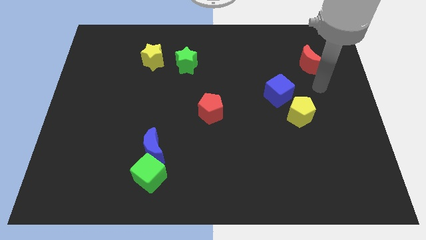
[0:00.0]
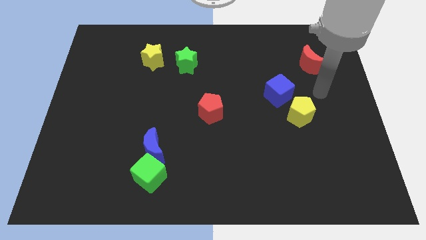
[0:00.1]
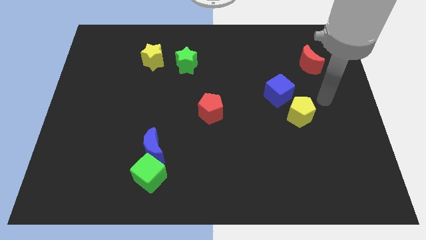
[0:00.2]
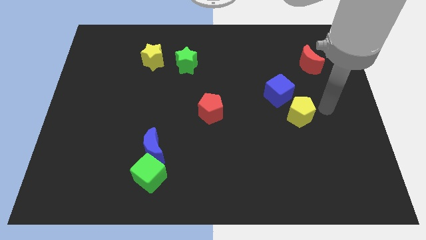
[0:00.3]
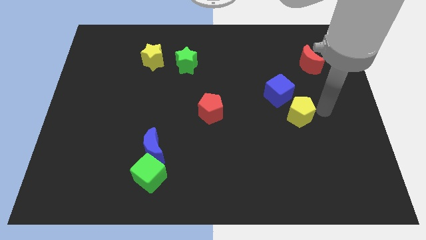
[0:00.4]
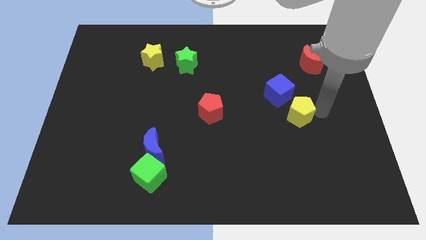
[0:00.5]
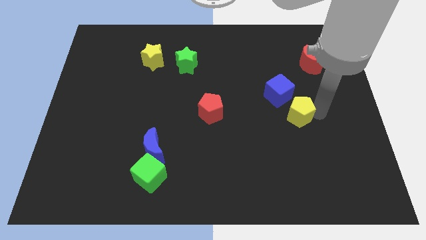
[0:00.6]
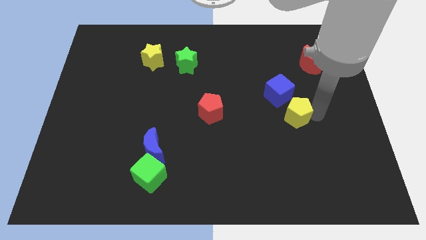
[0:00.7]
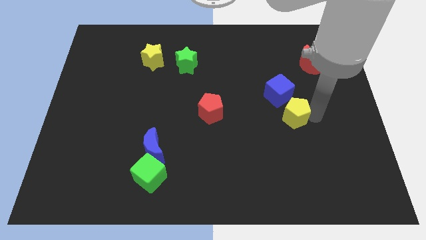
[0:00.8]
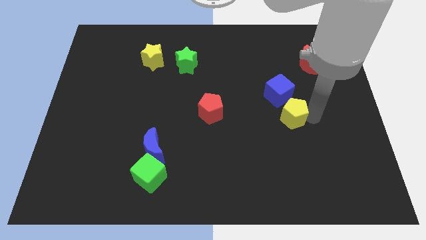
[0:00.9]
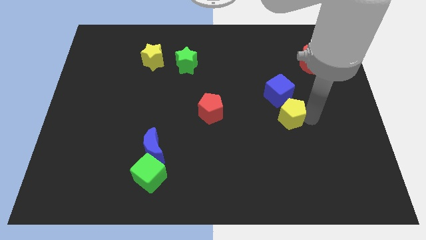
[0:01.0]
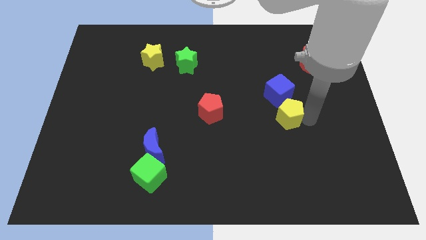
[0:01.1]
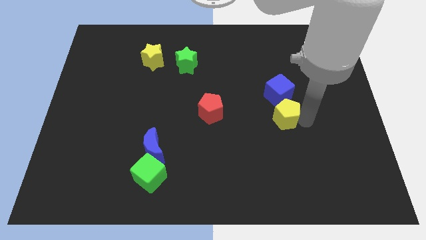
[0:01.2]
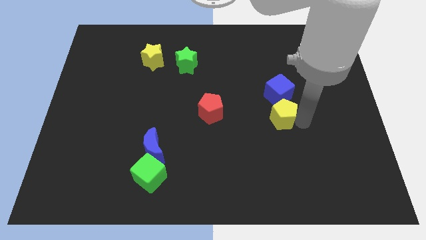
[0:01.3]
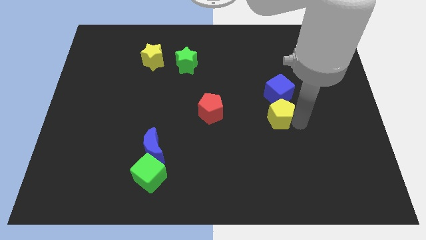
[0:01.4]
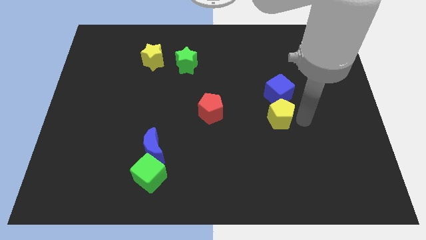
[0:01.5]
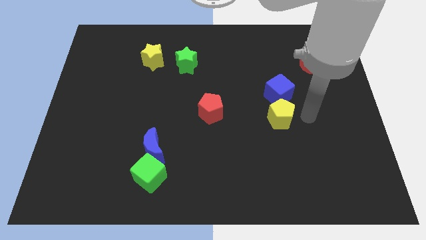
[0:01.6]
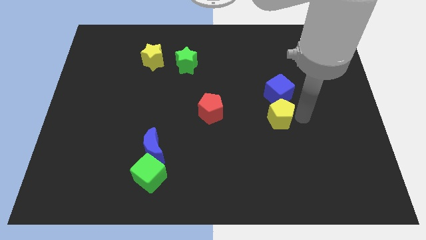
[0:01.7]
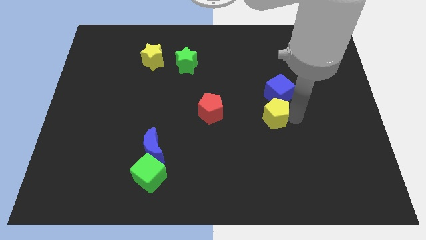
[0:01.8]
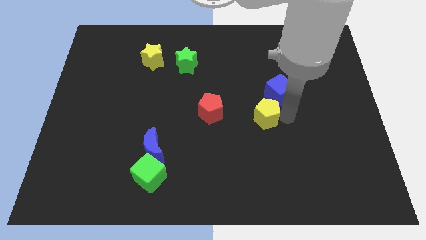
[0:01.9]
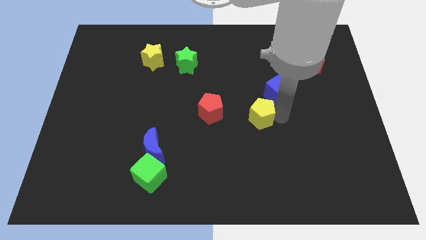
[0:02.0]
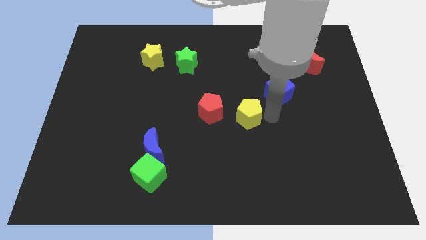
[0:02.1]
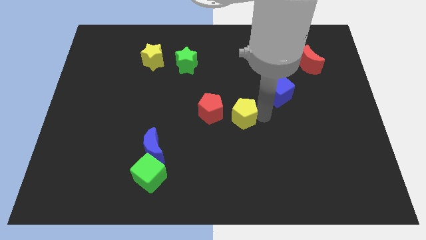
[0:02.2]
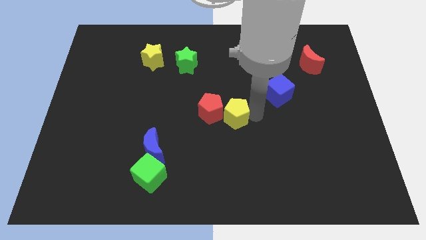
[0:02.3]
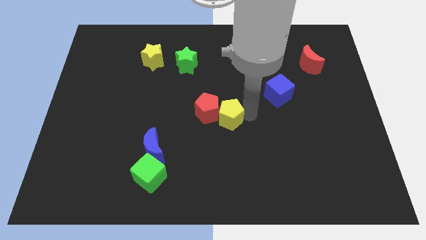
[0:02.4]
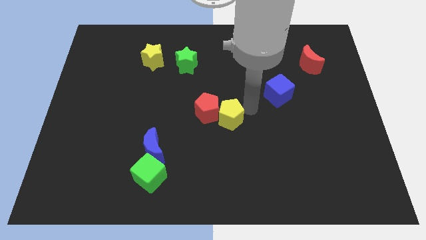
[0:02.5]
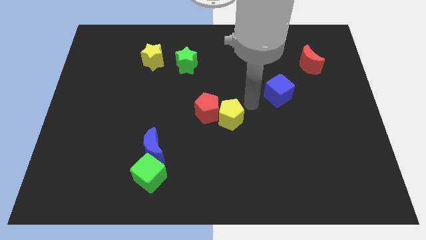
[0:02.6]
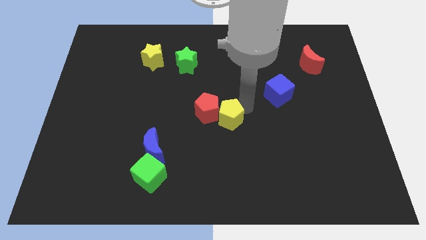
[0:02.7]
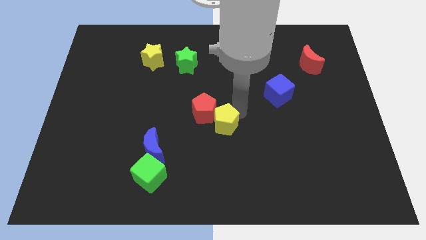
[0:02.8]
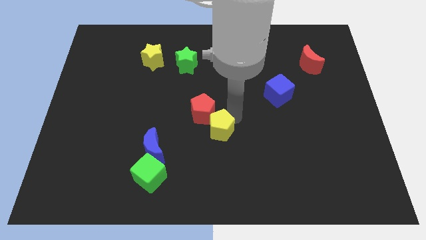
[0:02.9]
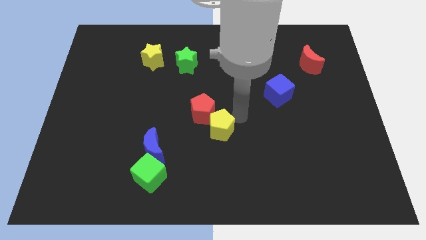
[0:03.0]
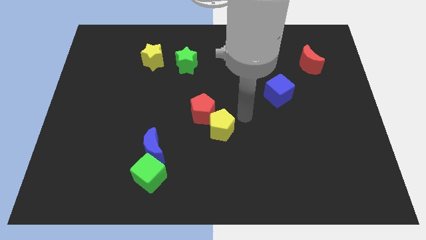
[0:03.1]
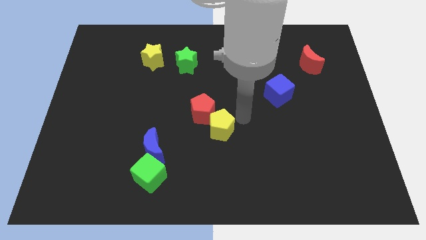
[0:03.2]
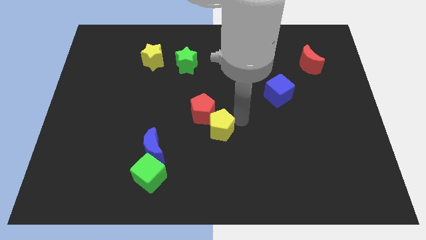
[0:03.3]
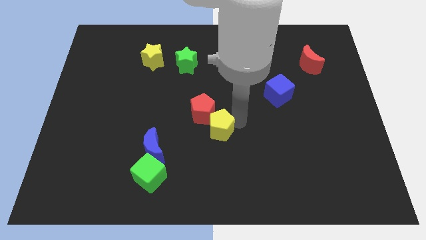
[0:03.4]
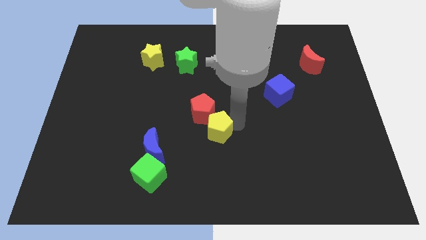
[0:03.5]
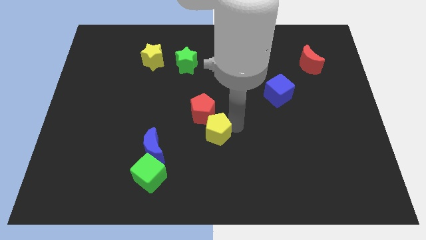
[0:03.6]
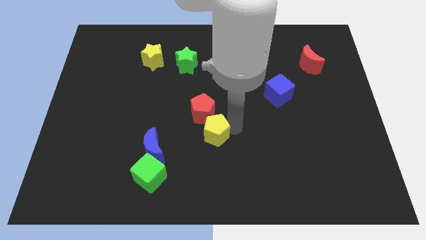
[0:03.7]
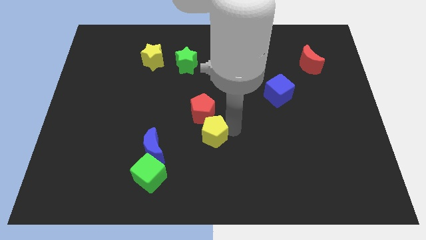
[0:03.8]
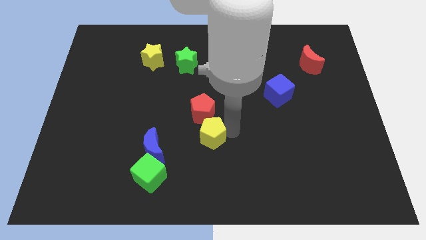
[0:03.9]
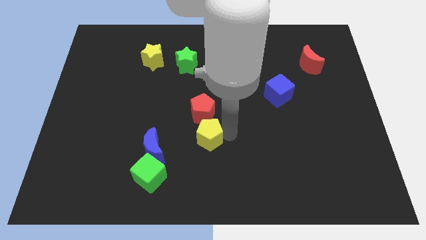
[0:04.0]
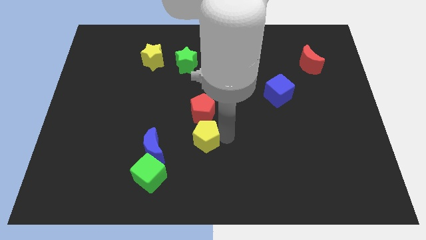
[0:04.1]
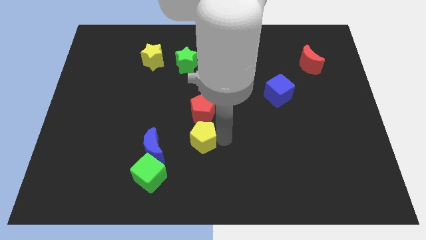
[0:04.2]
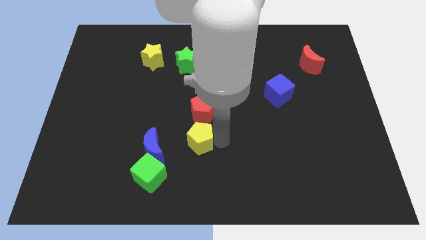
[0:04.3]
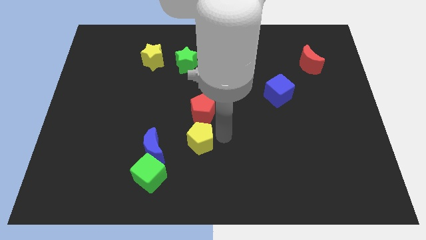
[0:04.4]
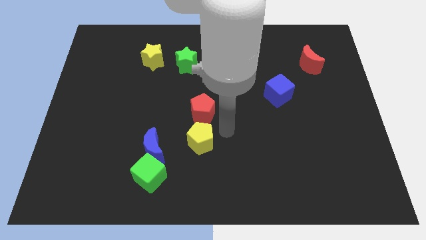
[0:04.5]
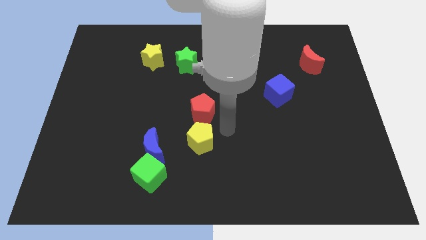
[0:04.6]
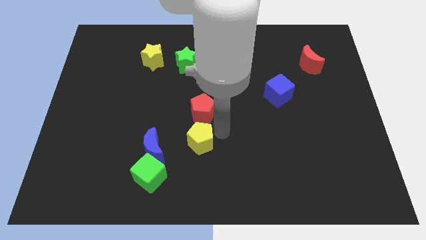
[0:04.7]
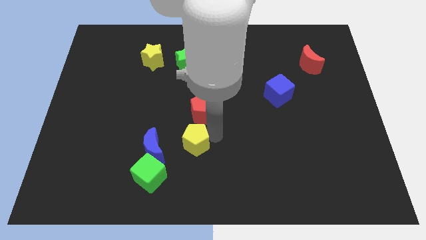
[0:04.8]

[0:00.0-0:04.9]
put the yellow pentagon diagonally up and to the right of the green cube

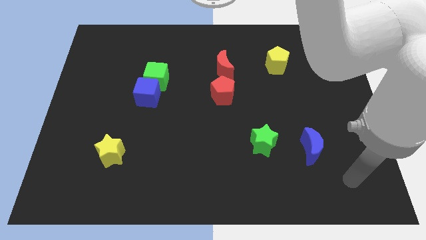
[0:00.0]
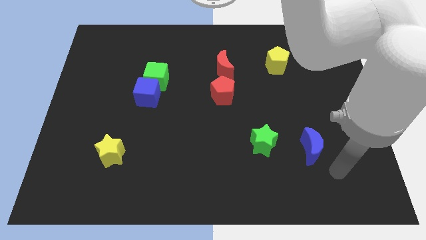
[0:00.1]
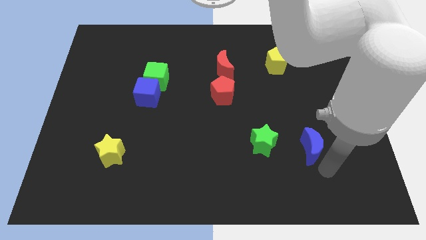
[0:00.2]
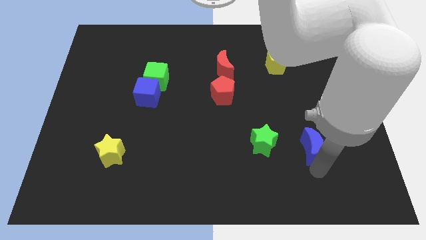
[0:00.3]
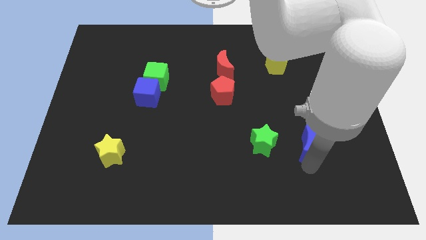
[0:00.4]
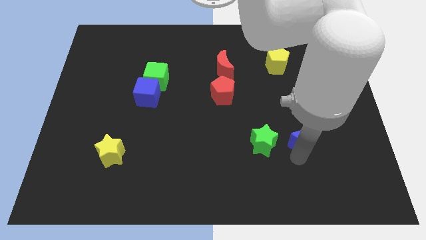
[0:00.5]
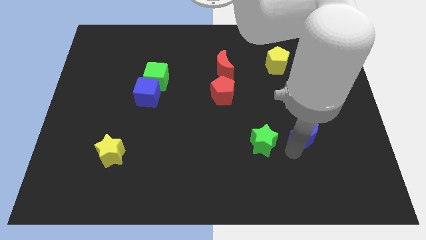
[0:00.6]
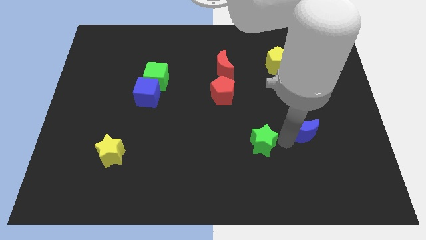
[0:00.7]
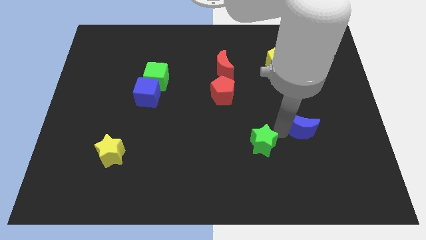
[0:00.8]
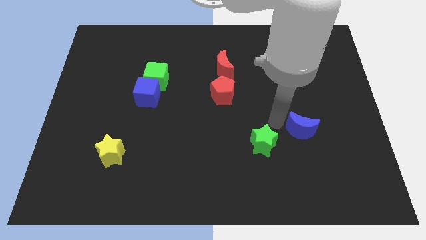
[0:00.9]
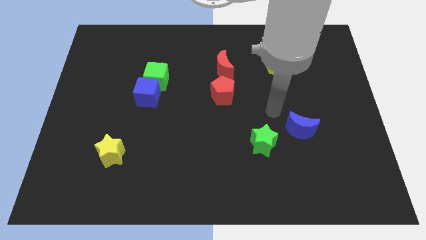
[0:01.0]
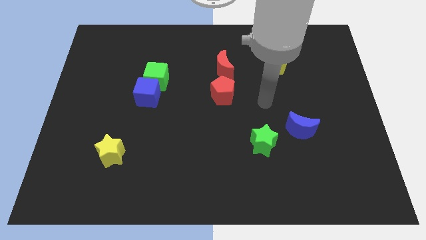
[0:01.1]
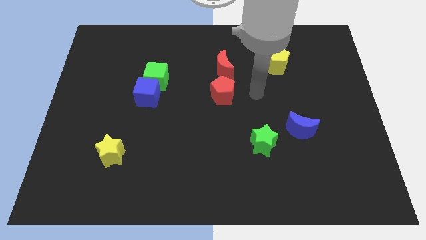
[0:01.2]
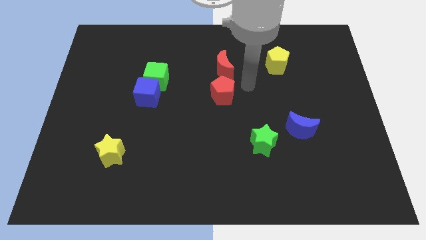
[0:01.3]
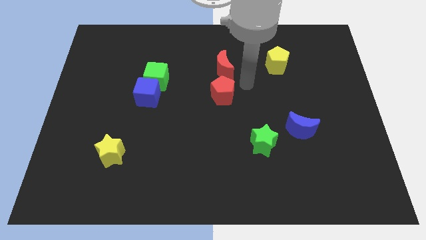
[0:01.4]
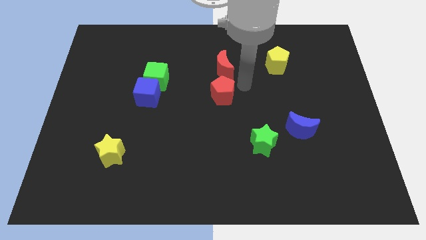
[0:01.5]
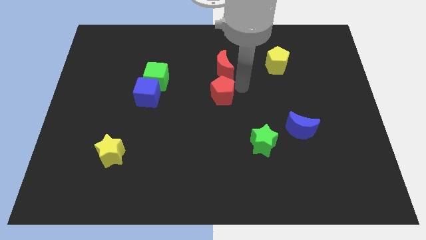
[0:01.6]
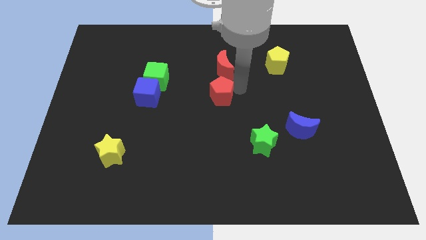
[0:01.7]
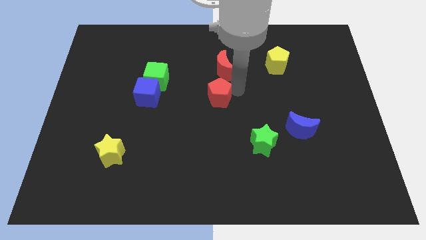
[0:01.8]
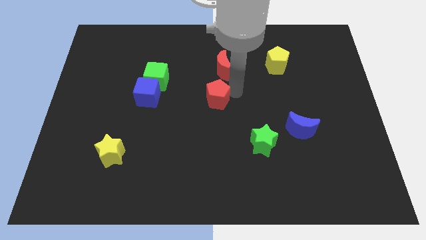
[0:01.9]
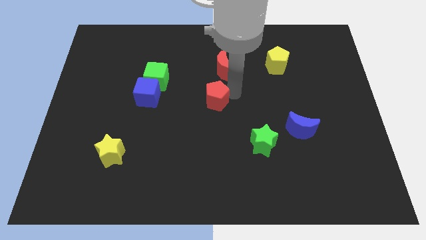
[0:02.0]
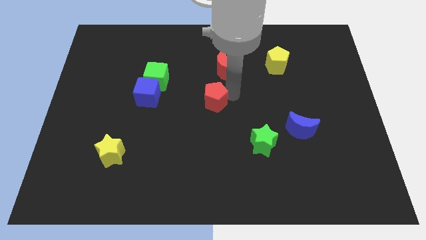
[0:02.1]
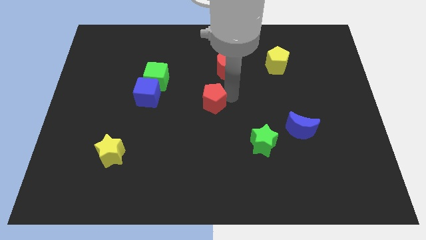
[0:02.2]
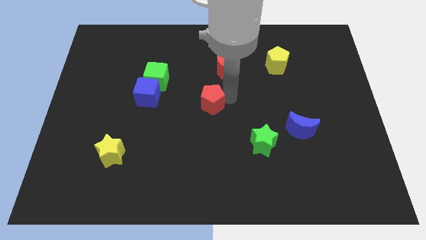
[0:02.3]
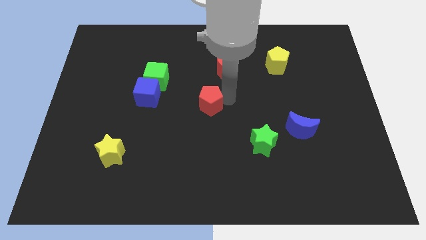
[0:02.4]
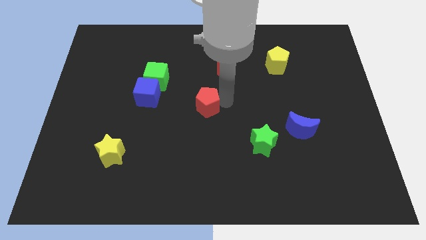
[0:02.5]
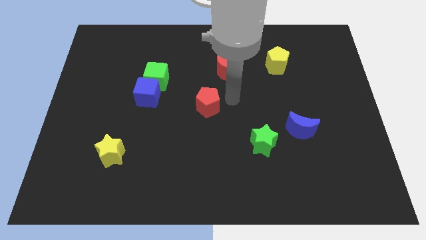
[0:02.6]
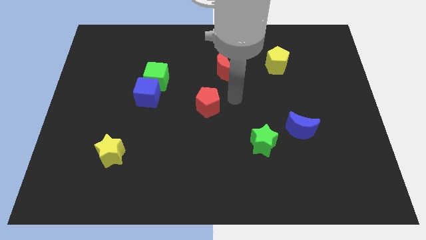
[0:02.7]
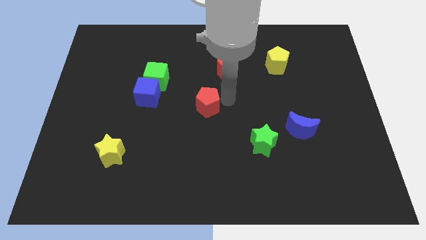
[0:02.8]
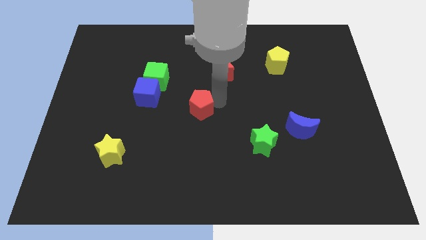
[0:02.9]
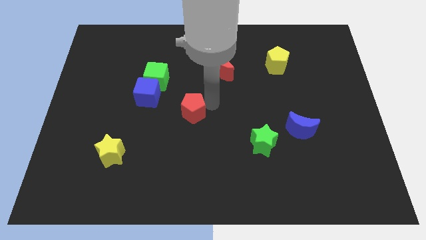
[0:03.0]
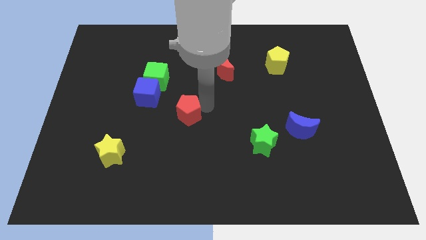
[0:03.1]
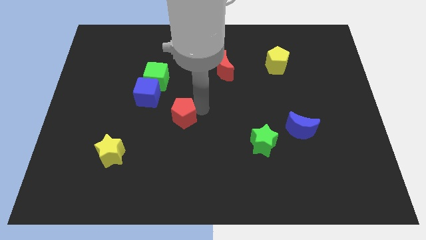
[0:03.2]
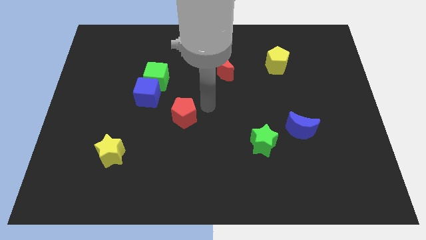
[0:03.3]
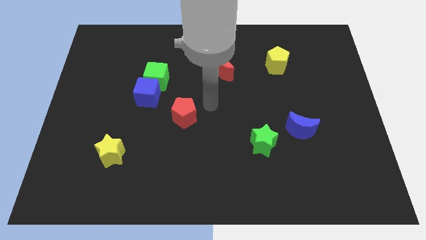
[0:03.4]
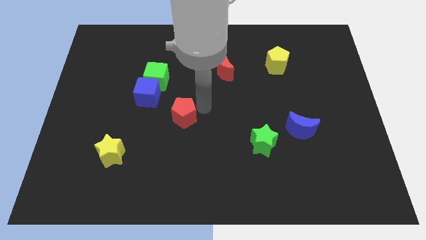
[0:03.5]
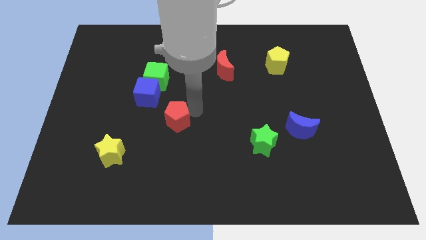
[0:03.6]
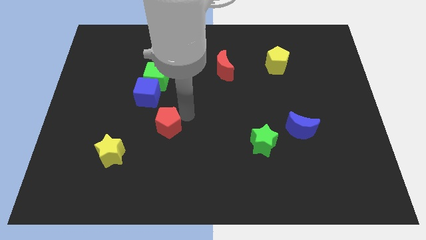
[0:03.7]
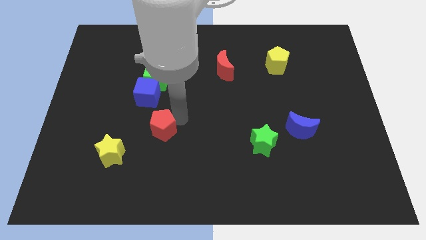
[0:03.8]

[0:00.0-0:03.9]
move the red pentagon to the bottom side of the blue cube
